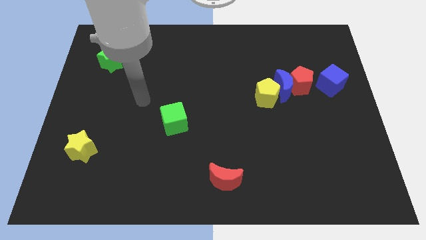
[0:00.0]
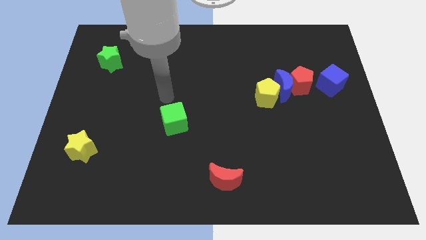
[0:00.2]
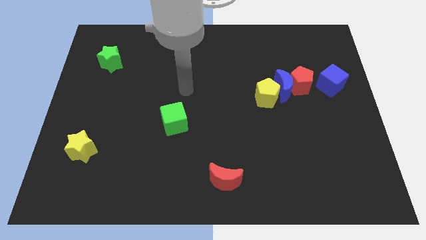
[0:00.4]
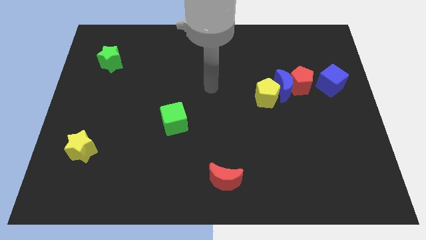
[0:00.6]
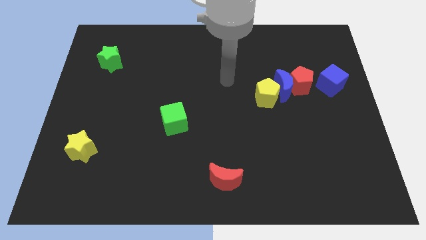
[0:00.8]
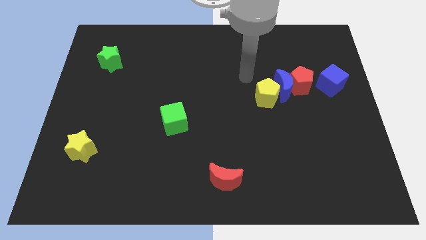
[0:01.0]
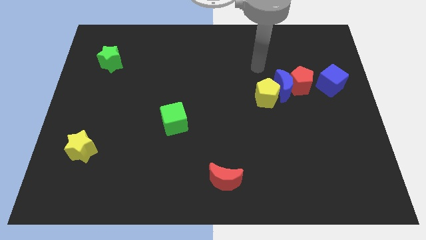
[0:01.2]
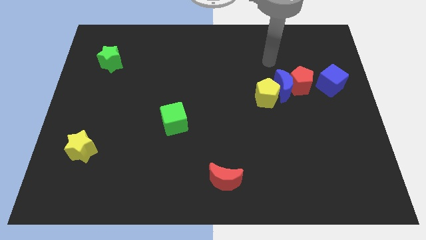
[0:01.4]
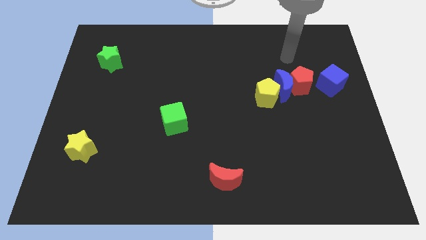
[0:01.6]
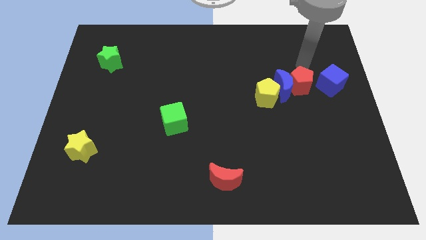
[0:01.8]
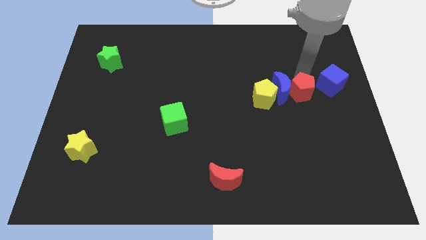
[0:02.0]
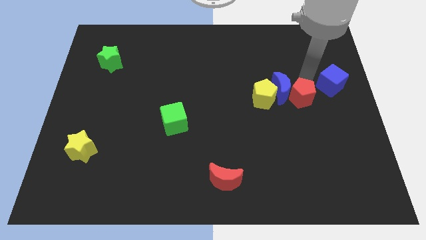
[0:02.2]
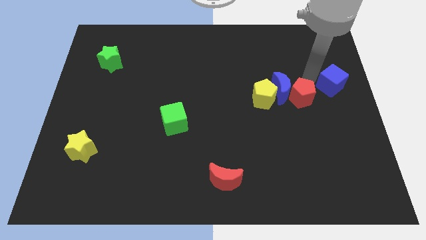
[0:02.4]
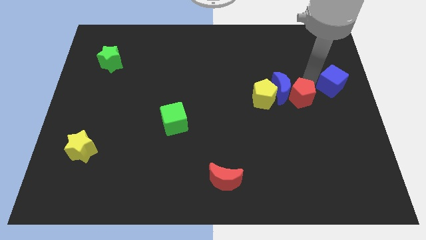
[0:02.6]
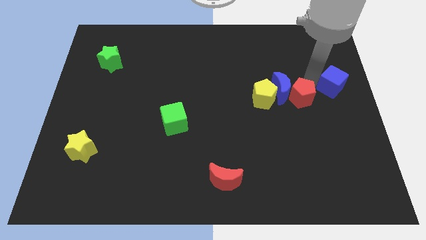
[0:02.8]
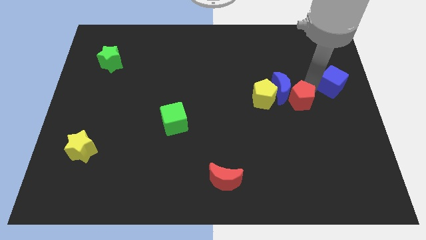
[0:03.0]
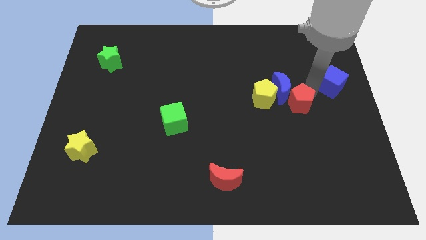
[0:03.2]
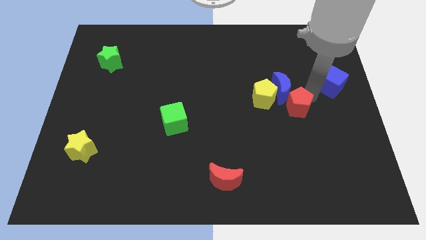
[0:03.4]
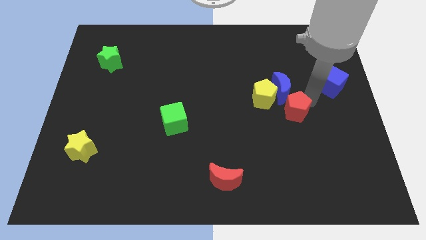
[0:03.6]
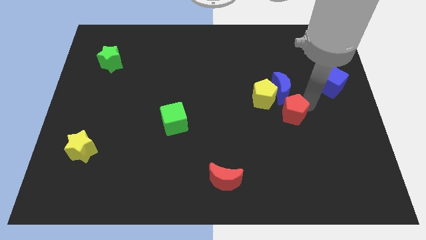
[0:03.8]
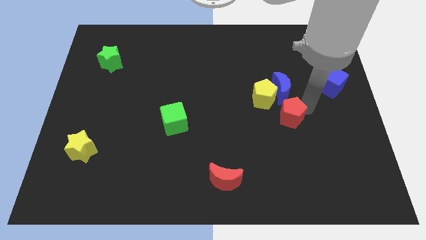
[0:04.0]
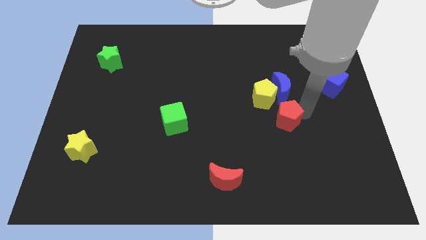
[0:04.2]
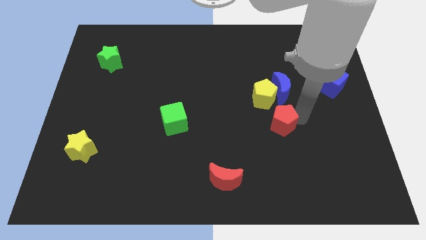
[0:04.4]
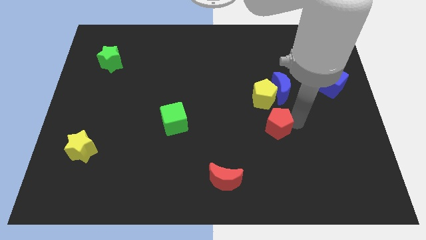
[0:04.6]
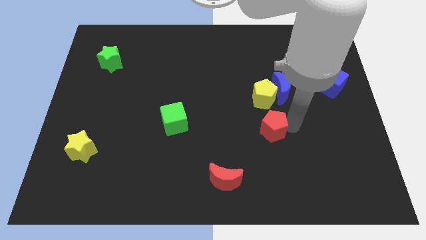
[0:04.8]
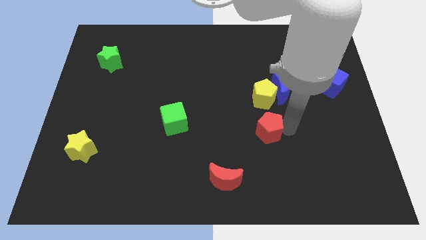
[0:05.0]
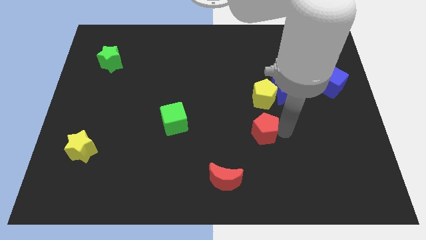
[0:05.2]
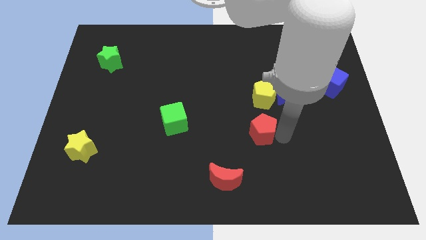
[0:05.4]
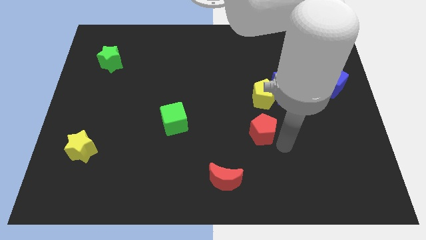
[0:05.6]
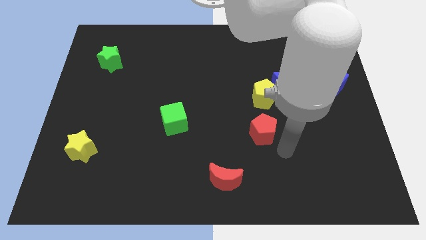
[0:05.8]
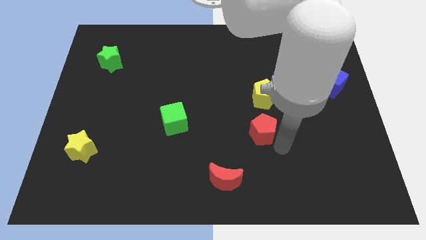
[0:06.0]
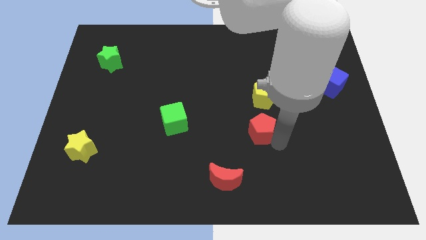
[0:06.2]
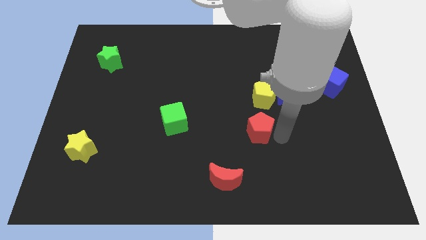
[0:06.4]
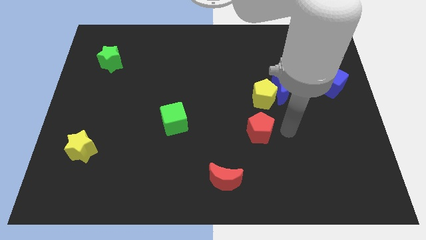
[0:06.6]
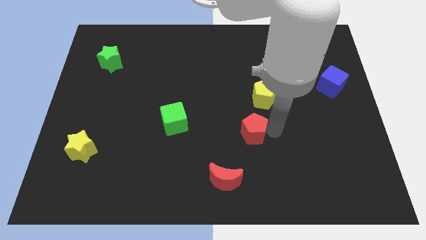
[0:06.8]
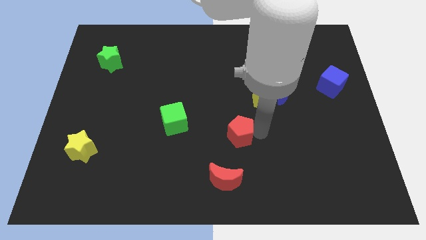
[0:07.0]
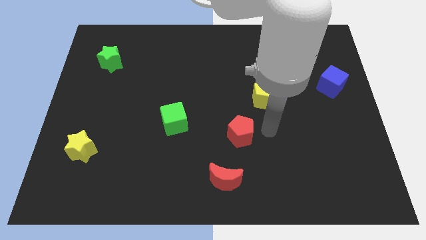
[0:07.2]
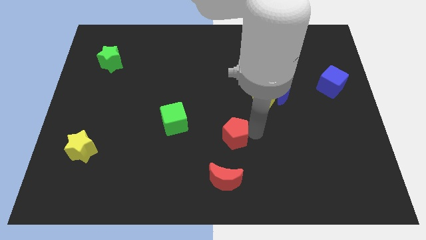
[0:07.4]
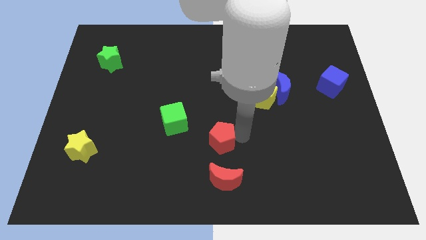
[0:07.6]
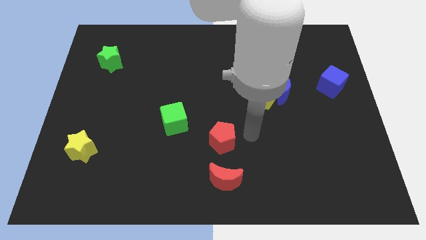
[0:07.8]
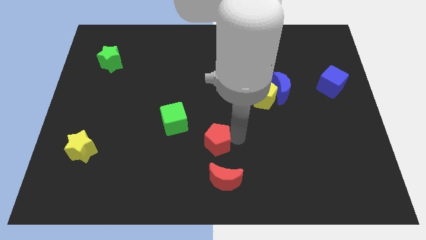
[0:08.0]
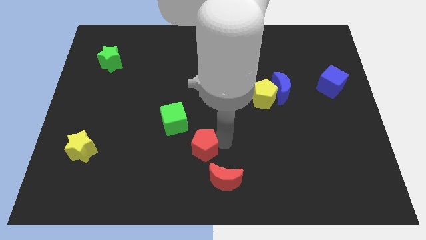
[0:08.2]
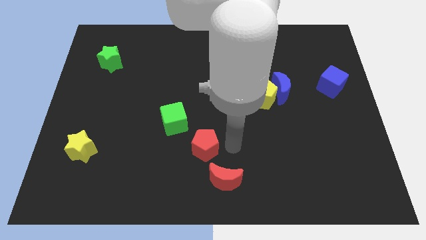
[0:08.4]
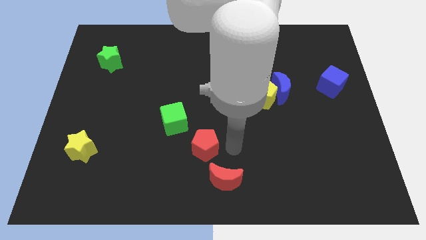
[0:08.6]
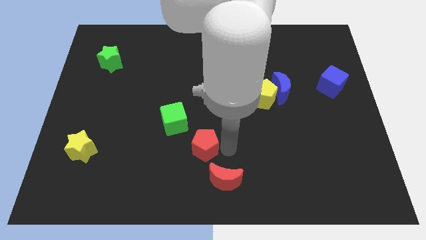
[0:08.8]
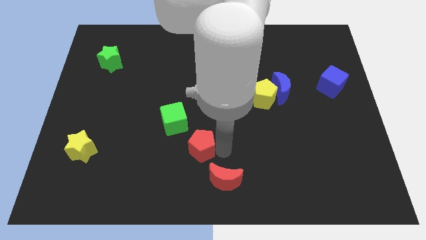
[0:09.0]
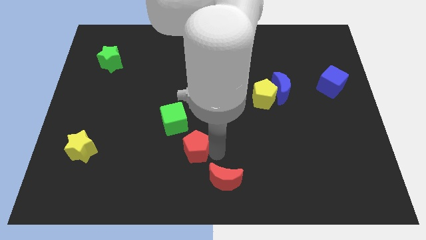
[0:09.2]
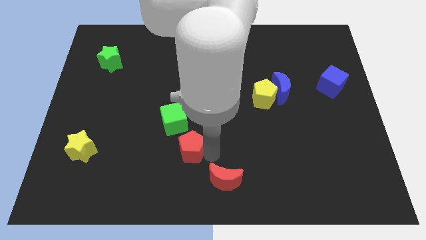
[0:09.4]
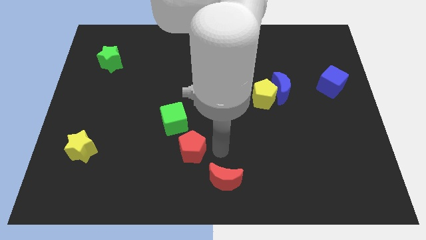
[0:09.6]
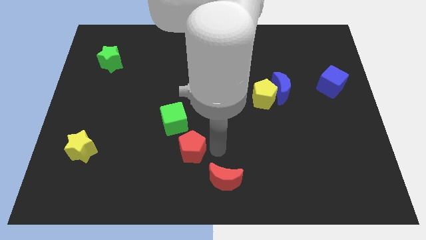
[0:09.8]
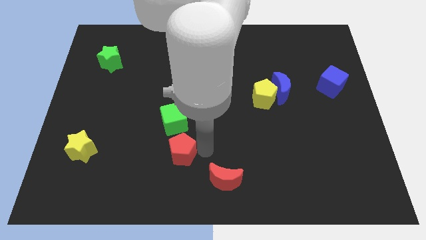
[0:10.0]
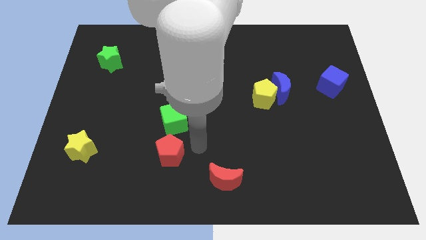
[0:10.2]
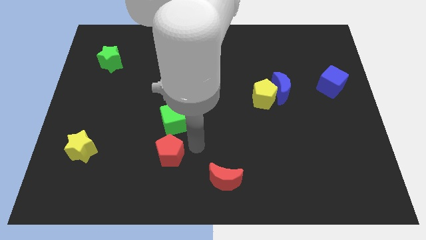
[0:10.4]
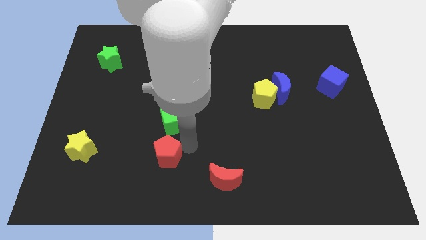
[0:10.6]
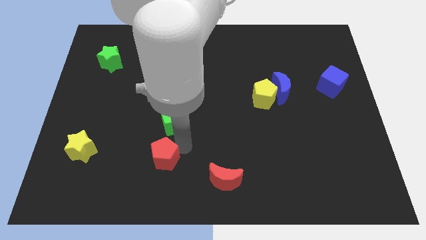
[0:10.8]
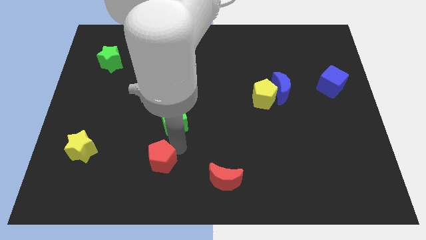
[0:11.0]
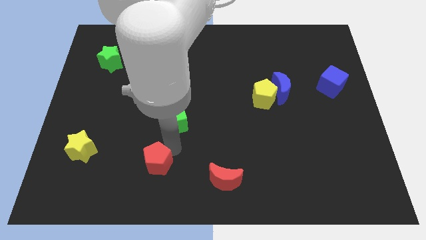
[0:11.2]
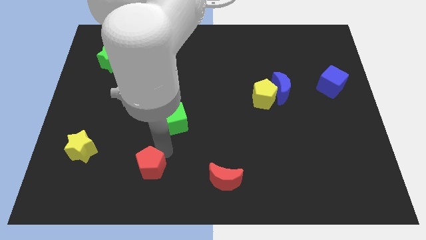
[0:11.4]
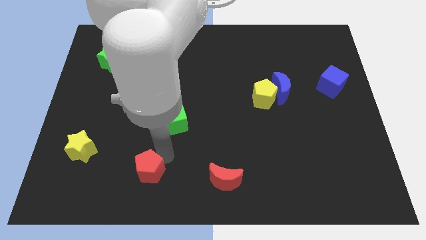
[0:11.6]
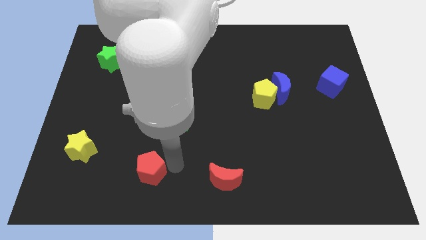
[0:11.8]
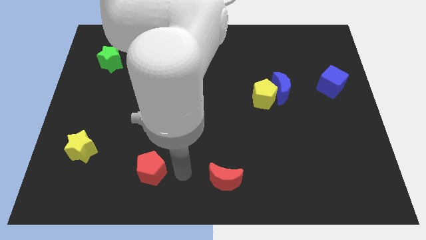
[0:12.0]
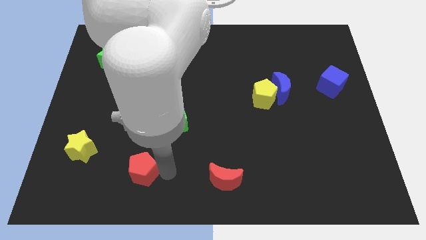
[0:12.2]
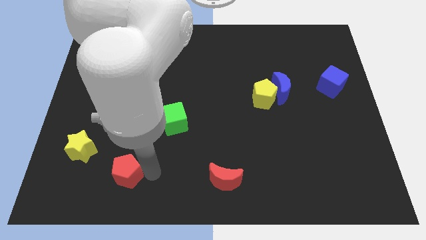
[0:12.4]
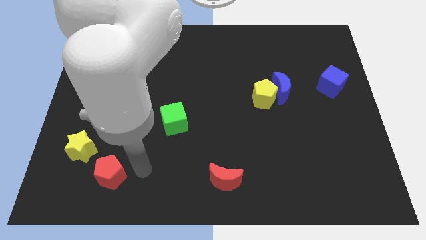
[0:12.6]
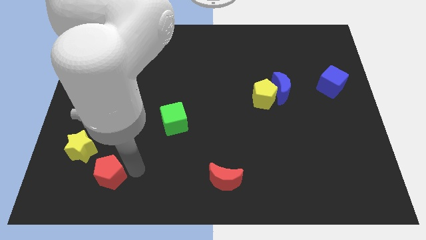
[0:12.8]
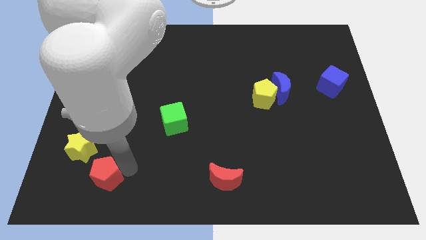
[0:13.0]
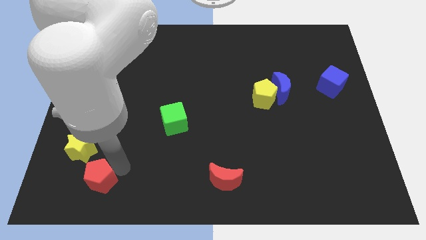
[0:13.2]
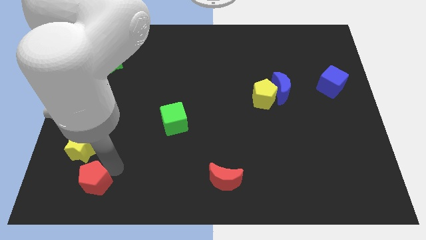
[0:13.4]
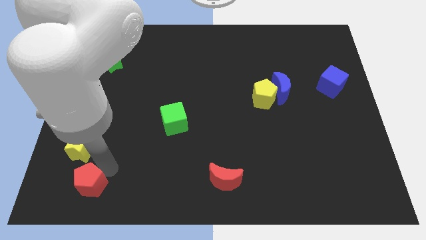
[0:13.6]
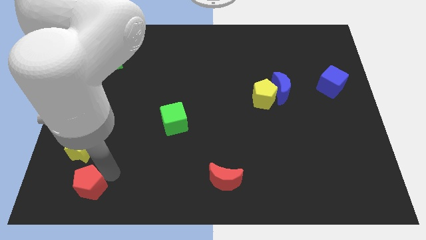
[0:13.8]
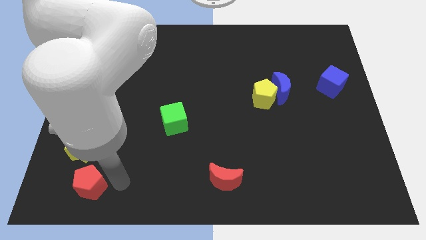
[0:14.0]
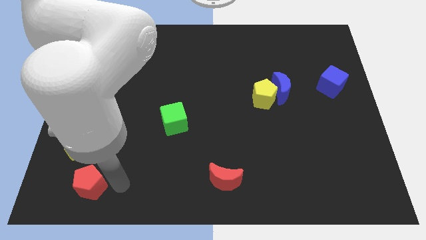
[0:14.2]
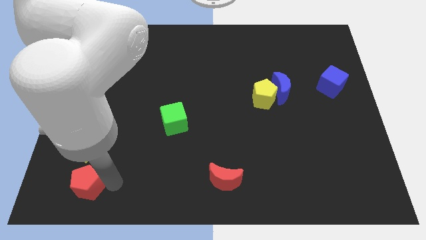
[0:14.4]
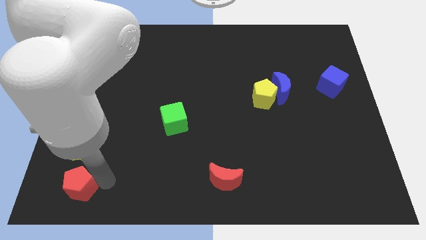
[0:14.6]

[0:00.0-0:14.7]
move the red pentagon to the bottom left
